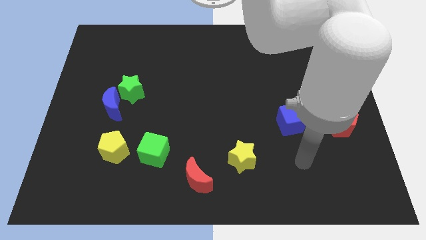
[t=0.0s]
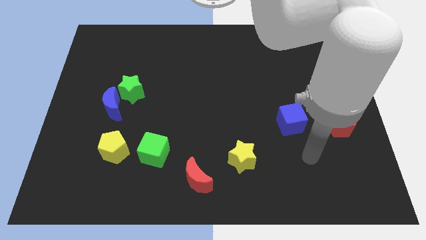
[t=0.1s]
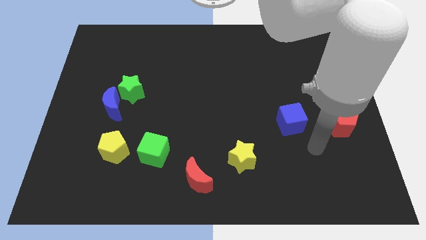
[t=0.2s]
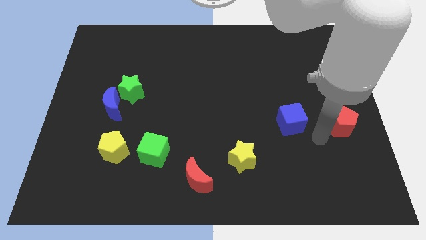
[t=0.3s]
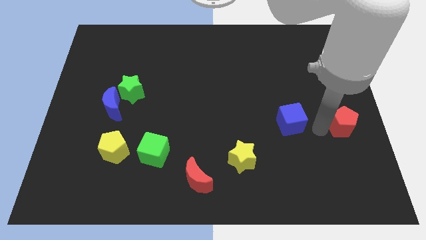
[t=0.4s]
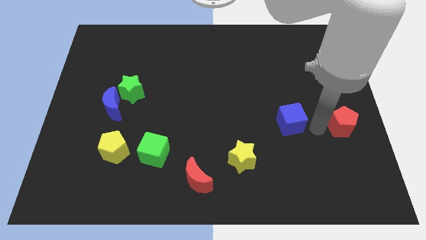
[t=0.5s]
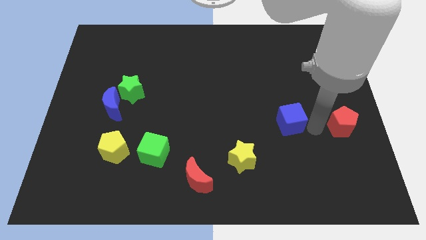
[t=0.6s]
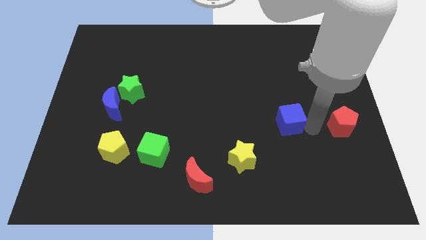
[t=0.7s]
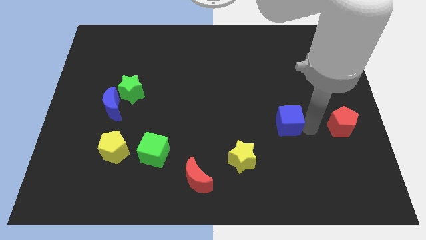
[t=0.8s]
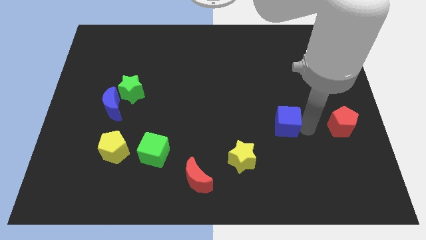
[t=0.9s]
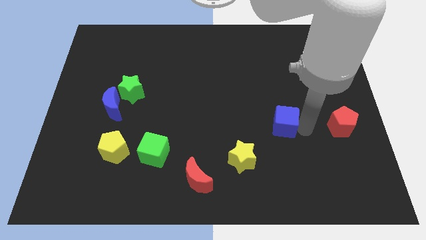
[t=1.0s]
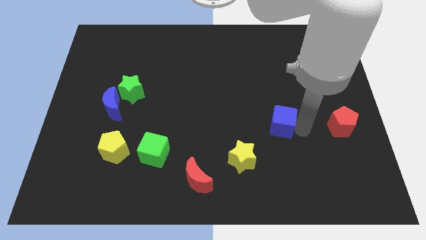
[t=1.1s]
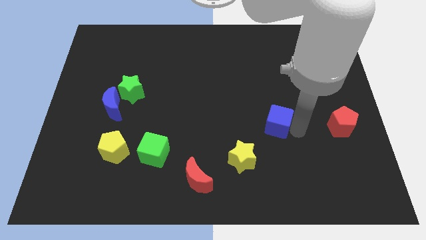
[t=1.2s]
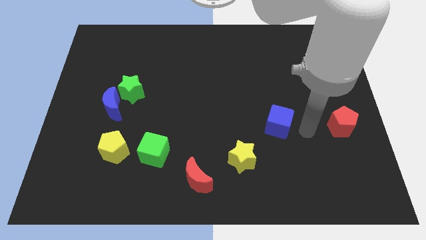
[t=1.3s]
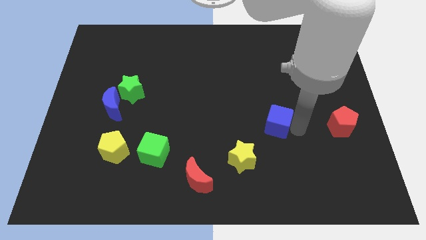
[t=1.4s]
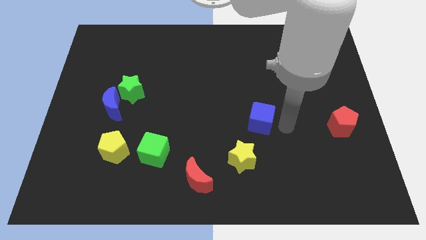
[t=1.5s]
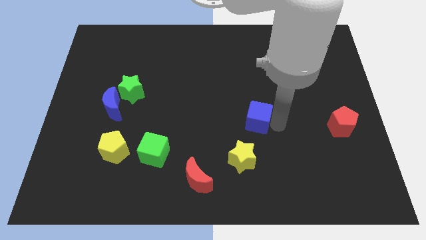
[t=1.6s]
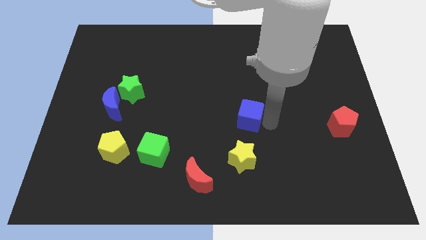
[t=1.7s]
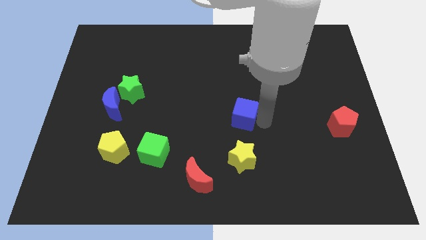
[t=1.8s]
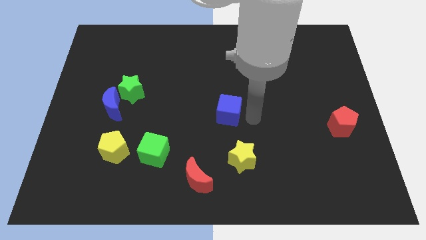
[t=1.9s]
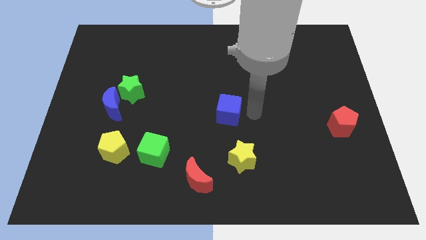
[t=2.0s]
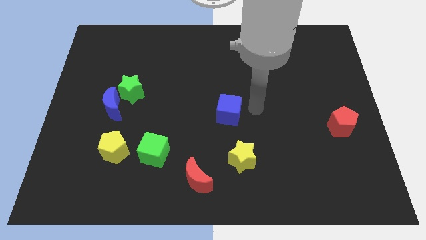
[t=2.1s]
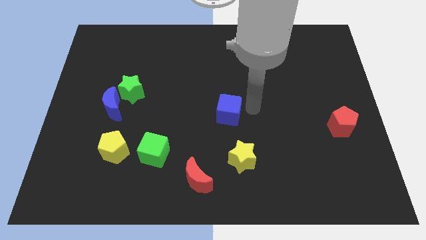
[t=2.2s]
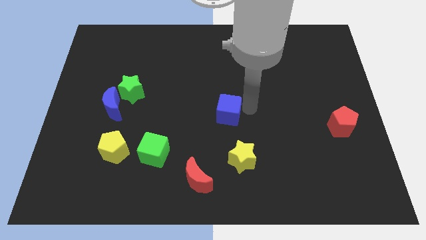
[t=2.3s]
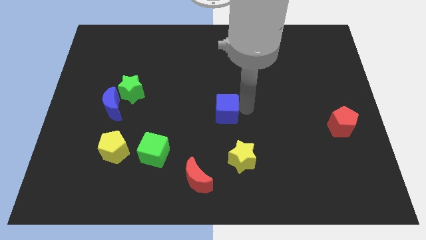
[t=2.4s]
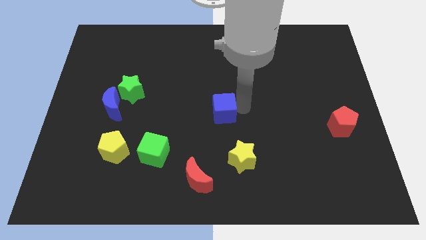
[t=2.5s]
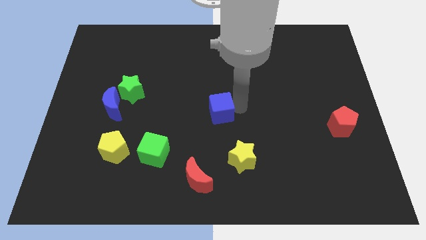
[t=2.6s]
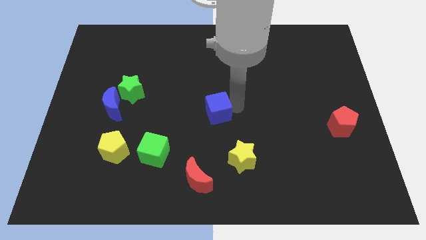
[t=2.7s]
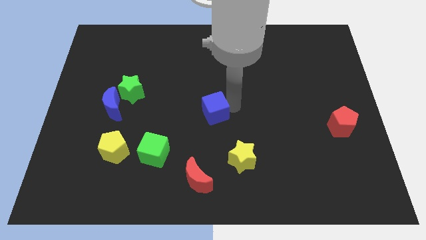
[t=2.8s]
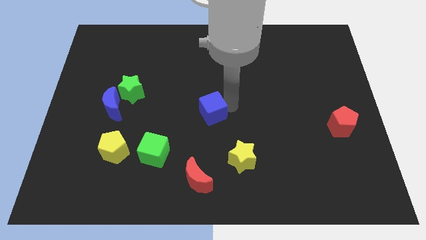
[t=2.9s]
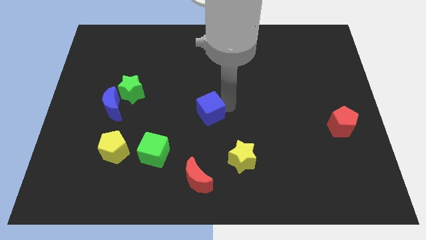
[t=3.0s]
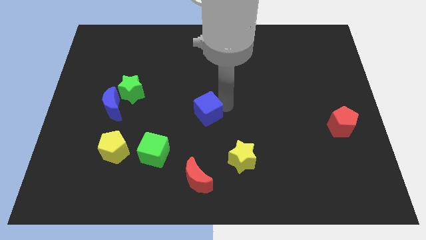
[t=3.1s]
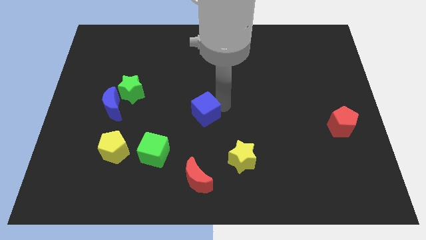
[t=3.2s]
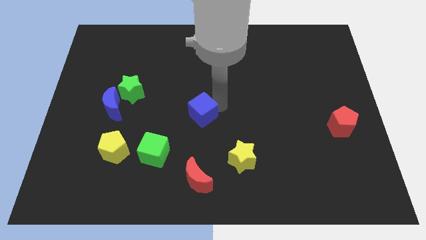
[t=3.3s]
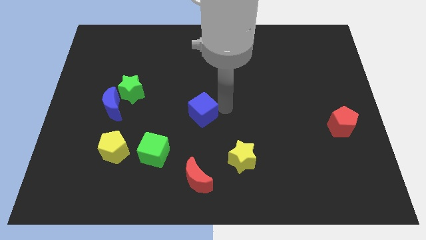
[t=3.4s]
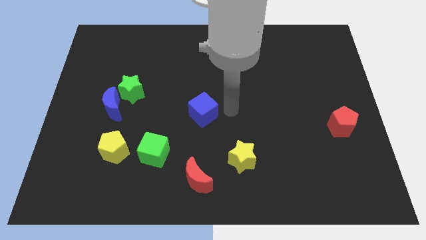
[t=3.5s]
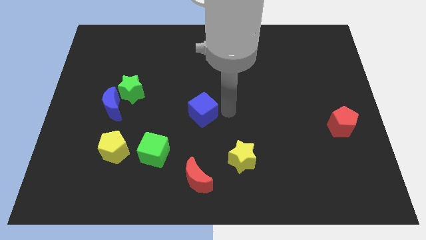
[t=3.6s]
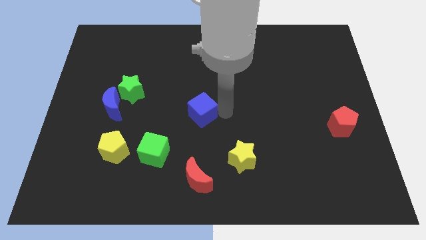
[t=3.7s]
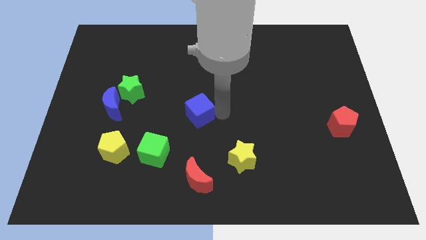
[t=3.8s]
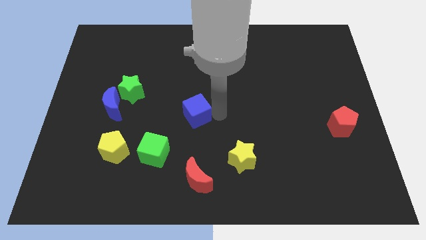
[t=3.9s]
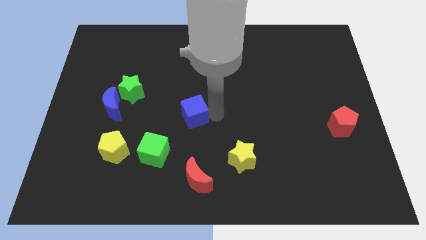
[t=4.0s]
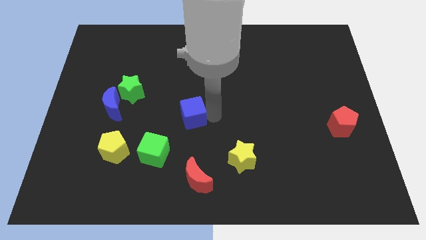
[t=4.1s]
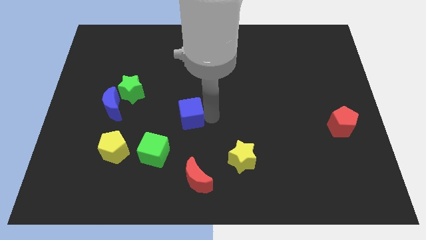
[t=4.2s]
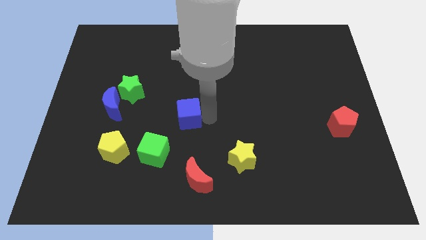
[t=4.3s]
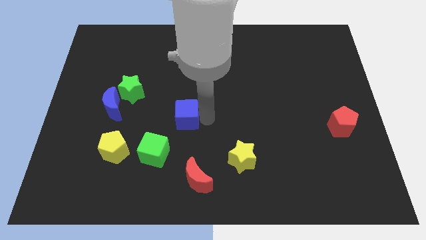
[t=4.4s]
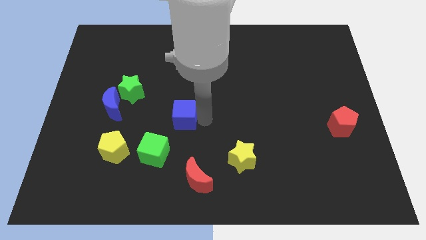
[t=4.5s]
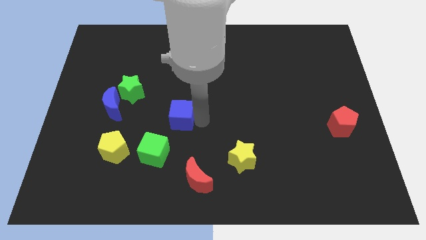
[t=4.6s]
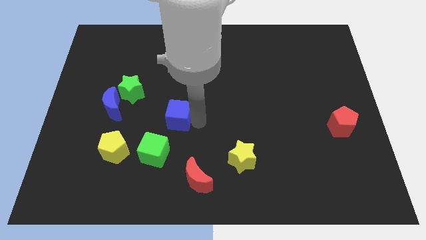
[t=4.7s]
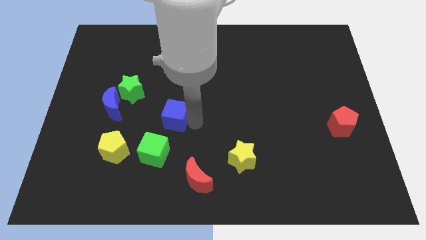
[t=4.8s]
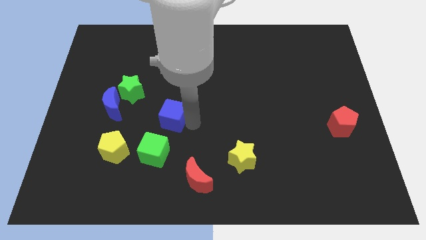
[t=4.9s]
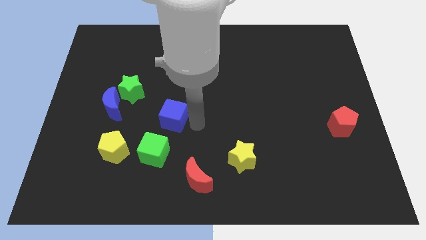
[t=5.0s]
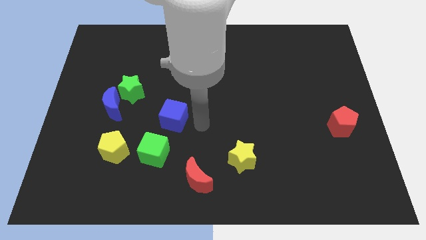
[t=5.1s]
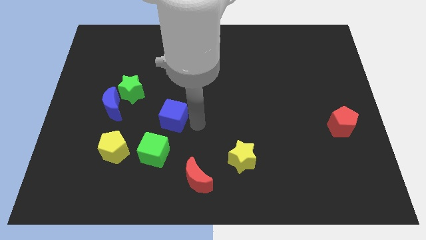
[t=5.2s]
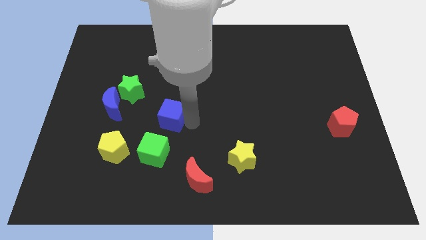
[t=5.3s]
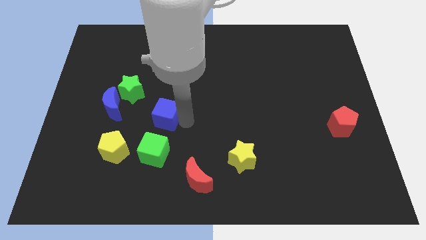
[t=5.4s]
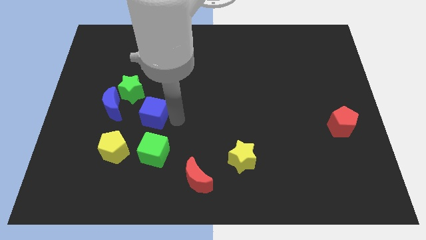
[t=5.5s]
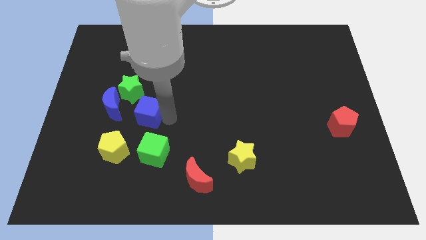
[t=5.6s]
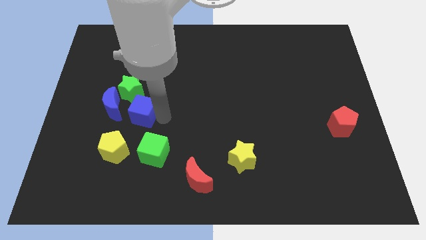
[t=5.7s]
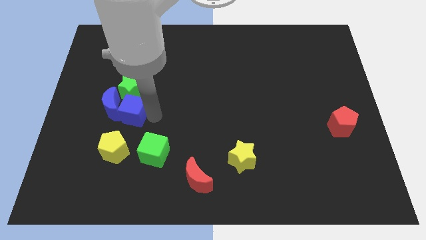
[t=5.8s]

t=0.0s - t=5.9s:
put the blue cube to the blue moon
